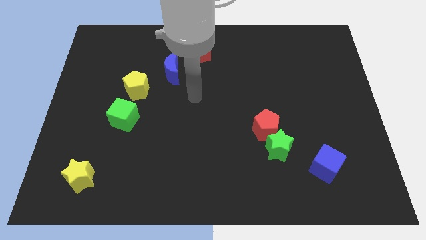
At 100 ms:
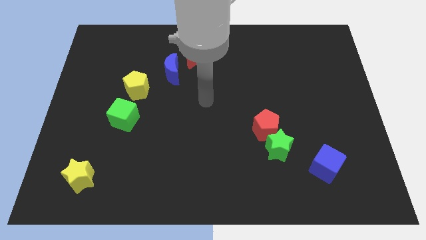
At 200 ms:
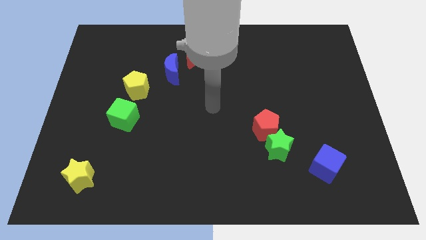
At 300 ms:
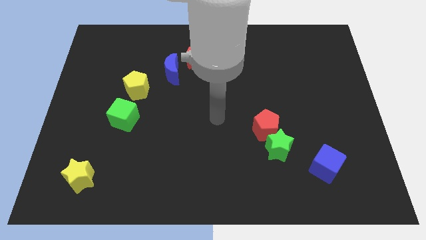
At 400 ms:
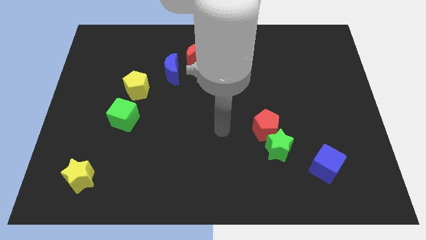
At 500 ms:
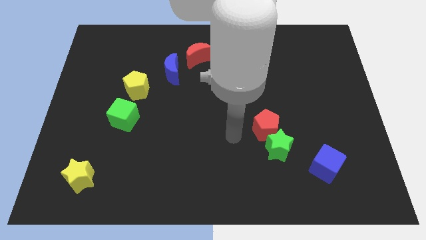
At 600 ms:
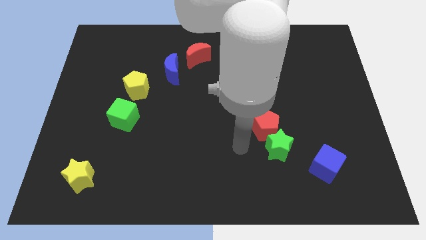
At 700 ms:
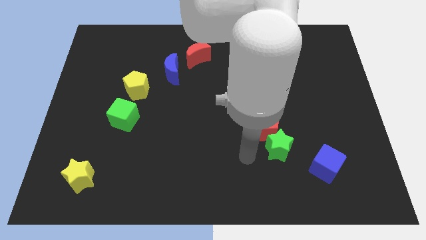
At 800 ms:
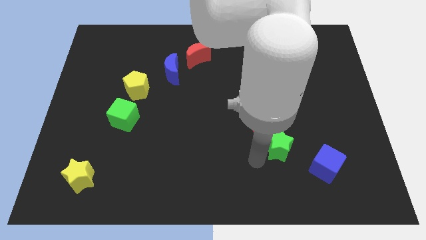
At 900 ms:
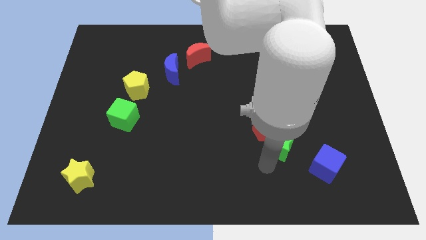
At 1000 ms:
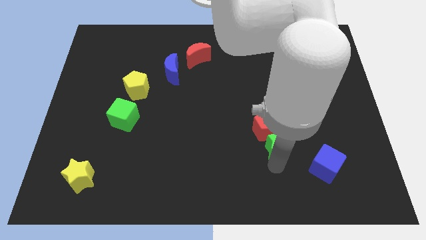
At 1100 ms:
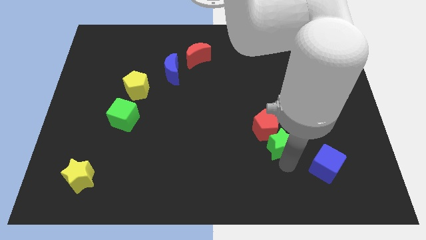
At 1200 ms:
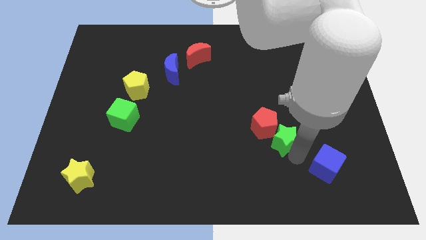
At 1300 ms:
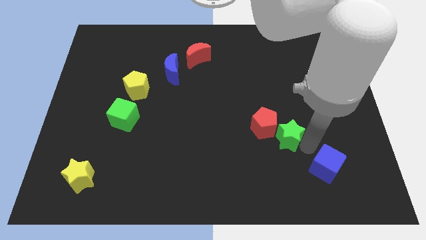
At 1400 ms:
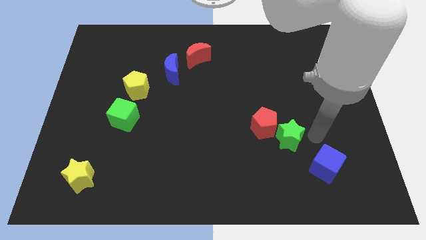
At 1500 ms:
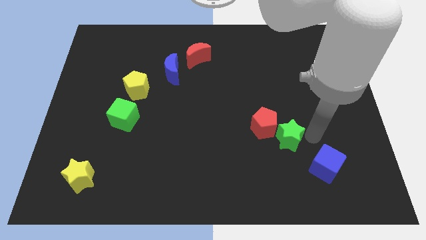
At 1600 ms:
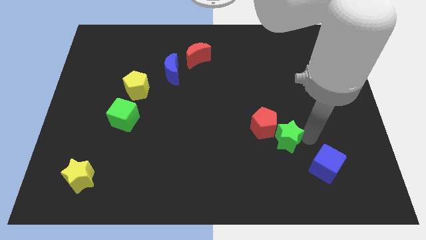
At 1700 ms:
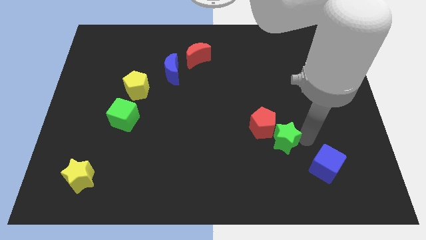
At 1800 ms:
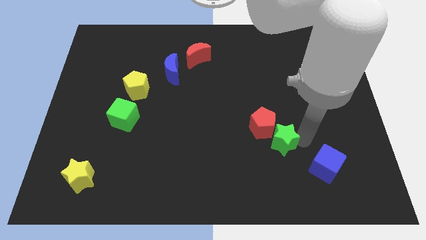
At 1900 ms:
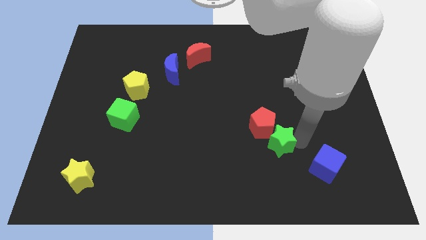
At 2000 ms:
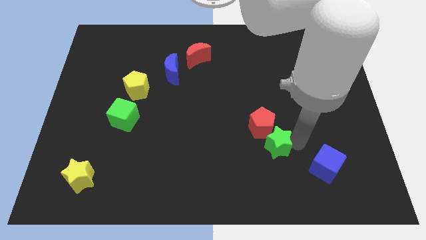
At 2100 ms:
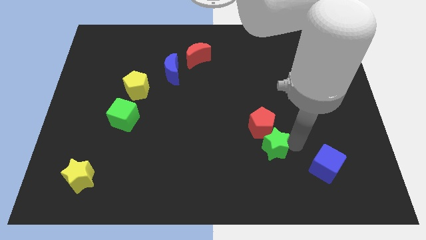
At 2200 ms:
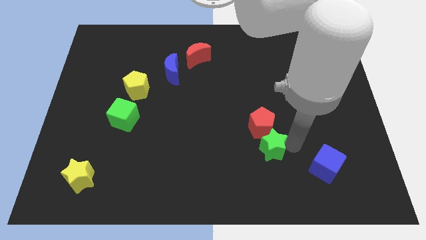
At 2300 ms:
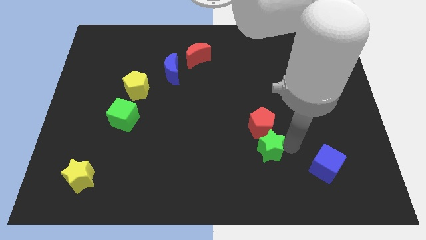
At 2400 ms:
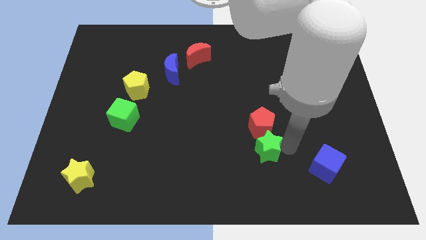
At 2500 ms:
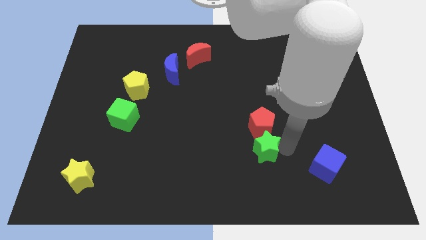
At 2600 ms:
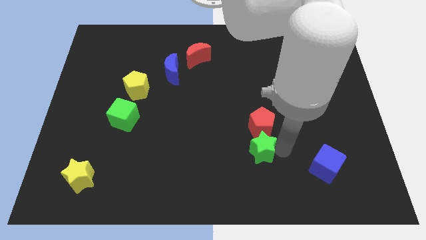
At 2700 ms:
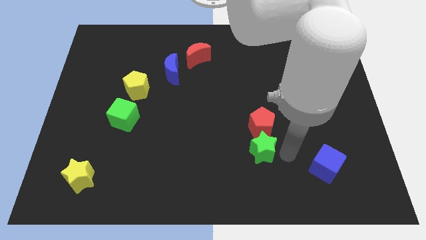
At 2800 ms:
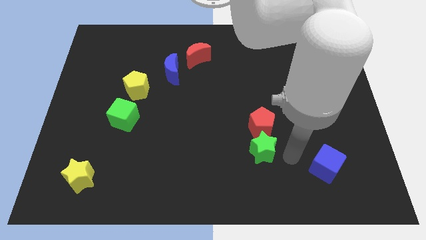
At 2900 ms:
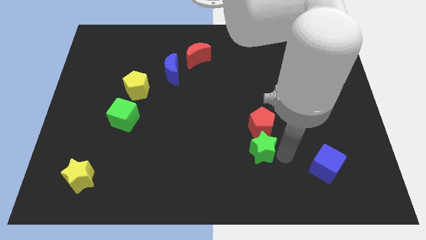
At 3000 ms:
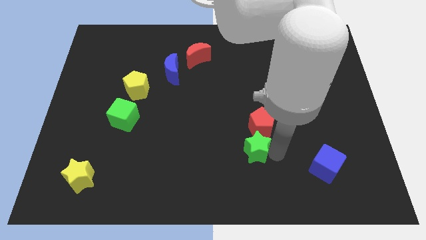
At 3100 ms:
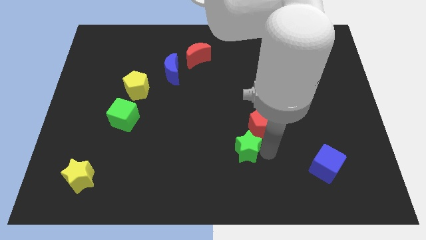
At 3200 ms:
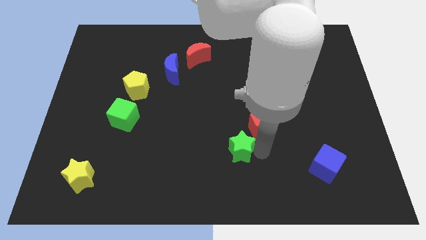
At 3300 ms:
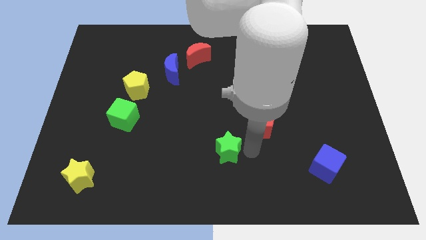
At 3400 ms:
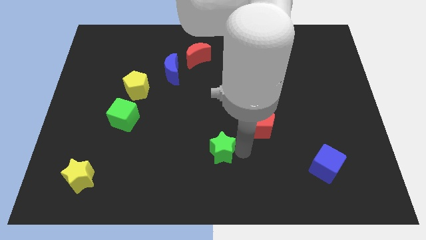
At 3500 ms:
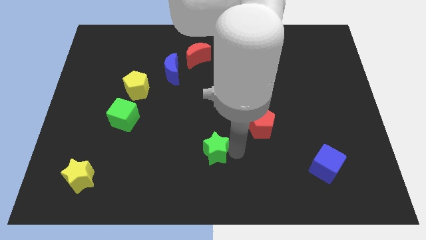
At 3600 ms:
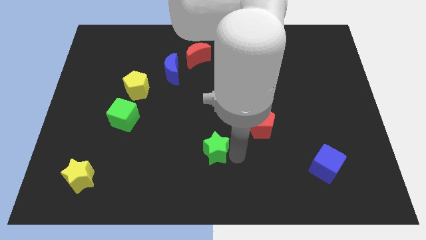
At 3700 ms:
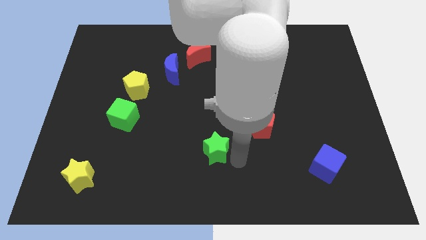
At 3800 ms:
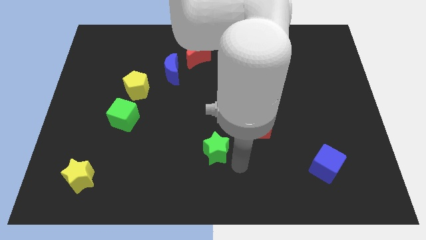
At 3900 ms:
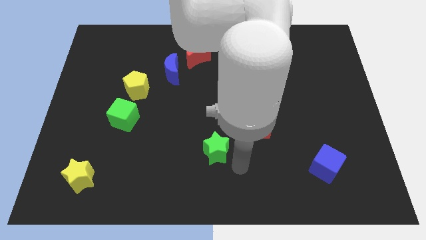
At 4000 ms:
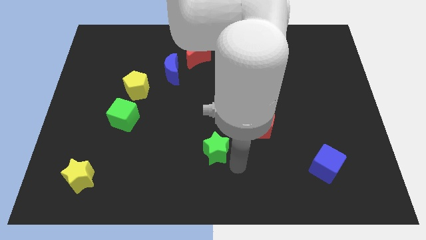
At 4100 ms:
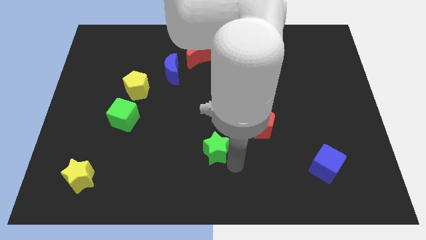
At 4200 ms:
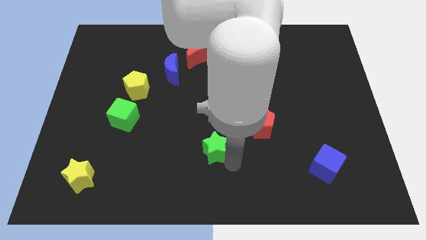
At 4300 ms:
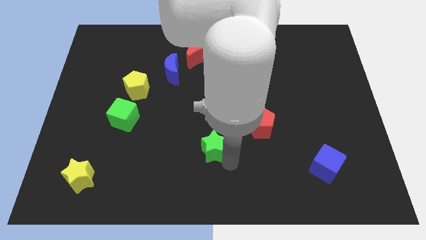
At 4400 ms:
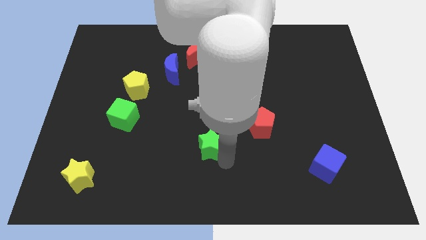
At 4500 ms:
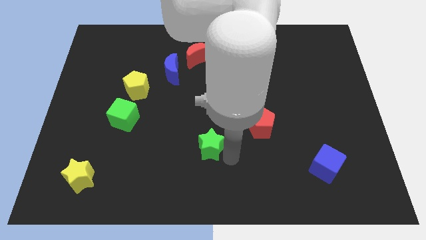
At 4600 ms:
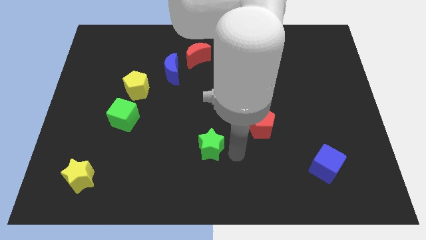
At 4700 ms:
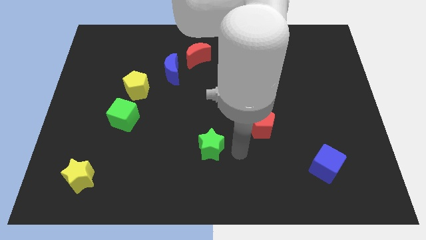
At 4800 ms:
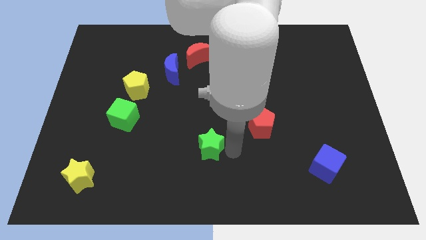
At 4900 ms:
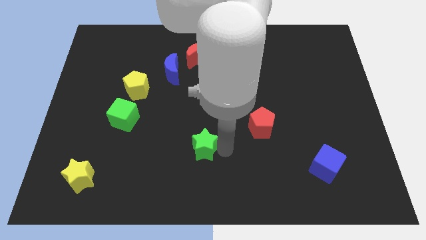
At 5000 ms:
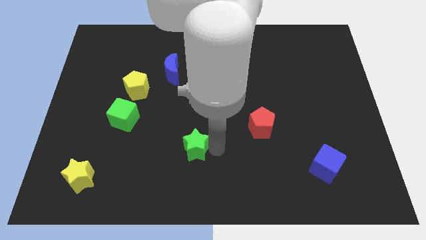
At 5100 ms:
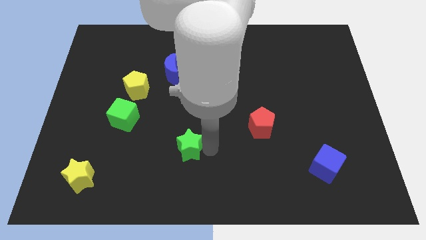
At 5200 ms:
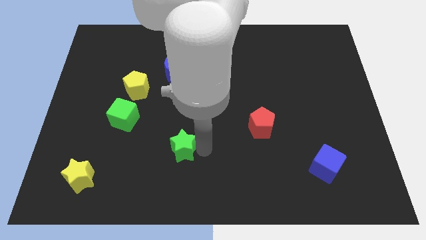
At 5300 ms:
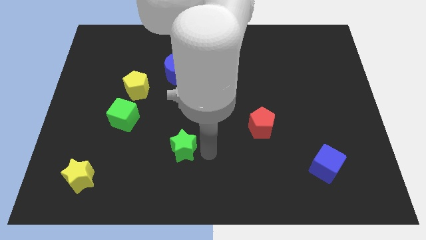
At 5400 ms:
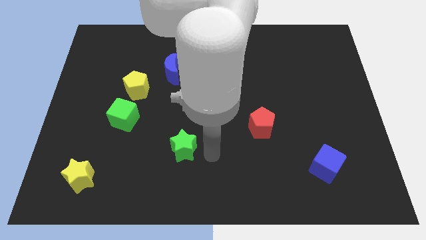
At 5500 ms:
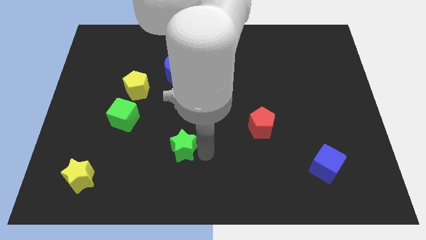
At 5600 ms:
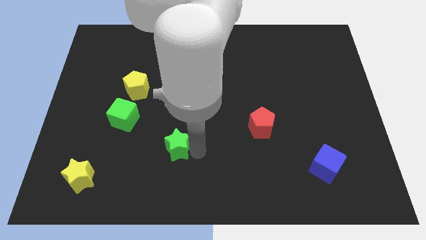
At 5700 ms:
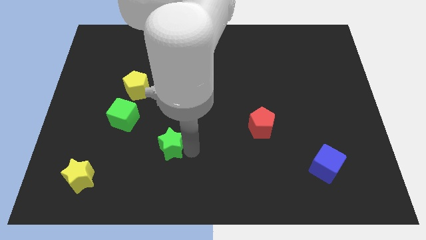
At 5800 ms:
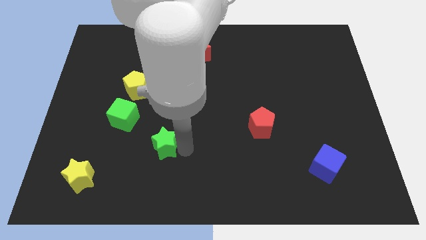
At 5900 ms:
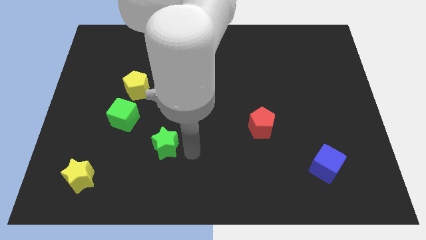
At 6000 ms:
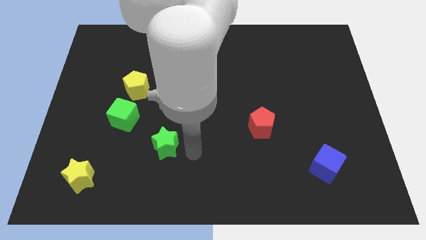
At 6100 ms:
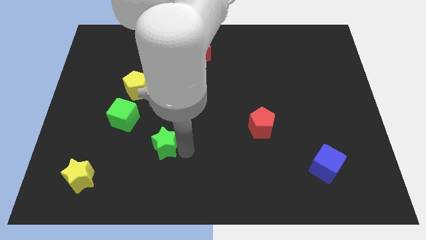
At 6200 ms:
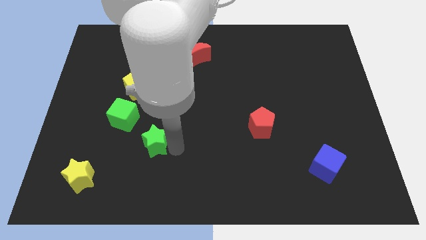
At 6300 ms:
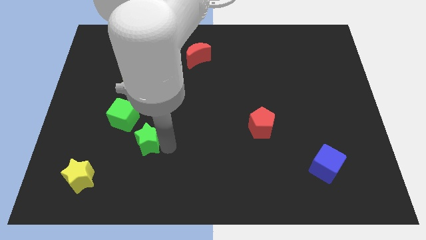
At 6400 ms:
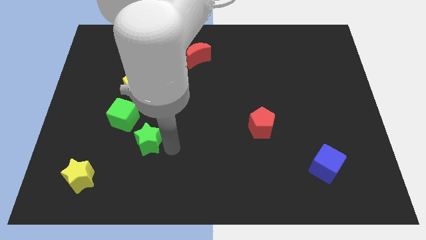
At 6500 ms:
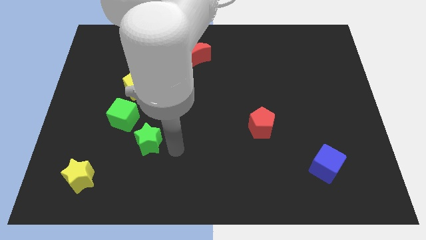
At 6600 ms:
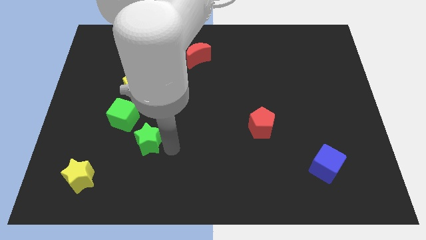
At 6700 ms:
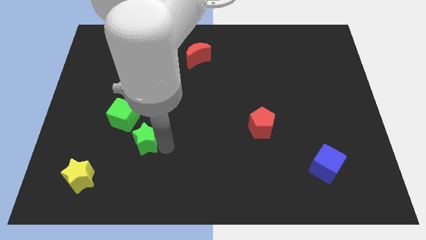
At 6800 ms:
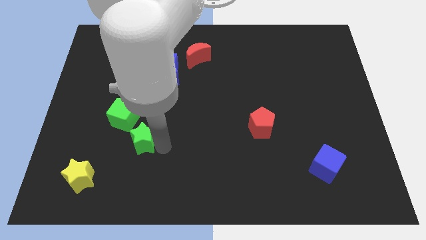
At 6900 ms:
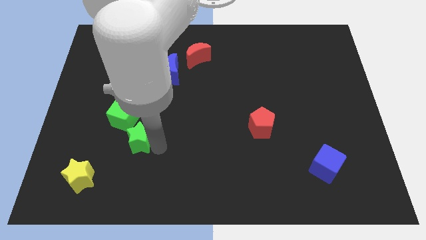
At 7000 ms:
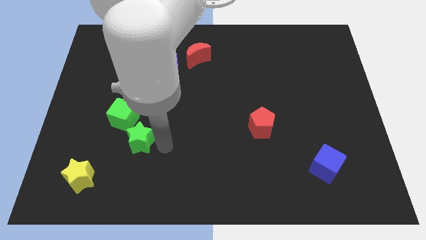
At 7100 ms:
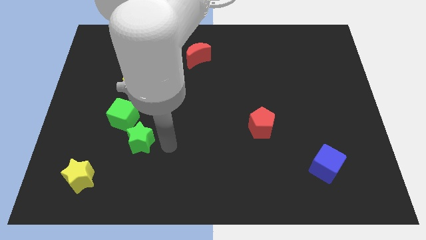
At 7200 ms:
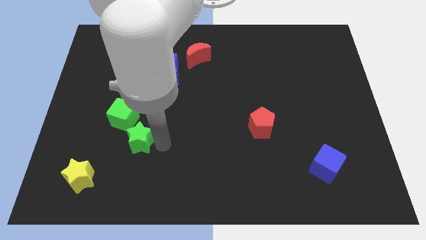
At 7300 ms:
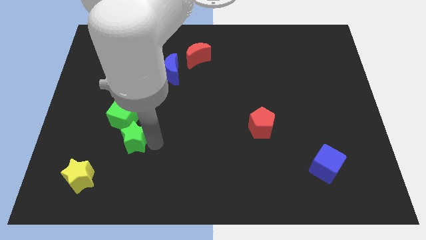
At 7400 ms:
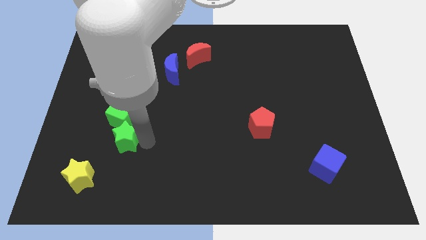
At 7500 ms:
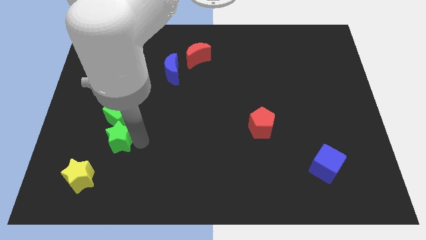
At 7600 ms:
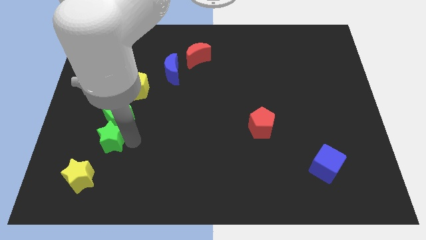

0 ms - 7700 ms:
slide the green star to the top of the yellow star
